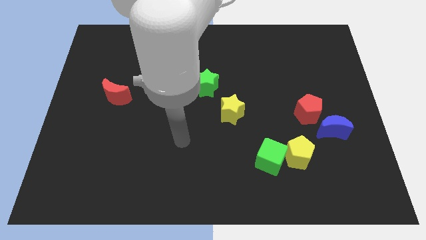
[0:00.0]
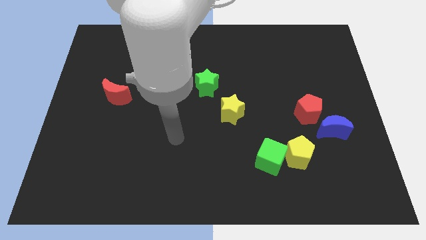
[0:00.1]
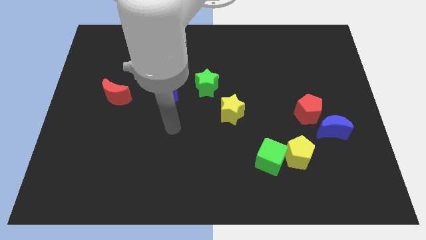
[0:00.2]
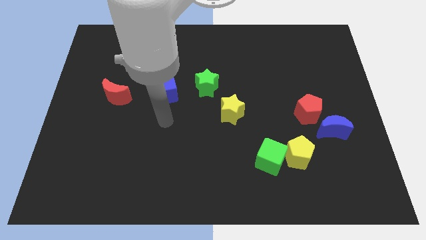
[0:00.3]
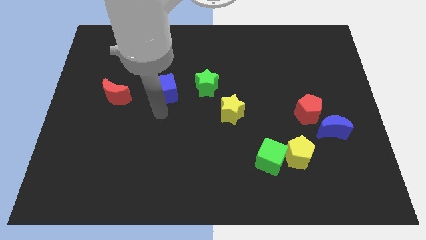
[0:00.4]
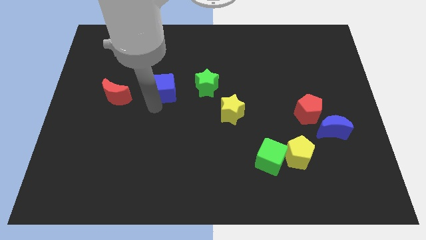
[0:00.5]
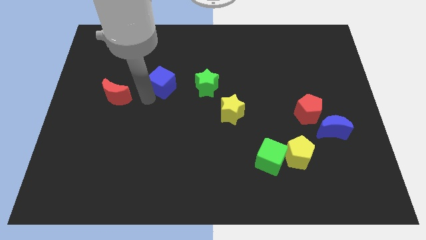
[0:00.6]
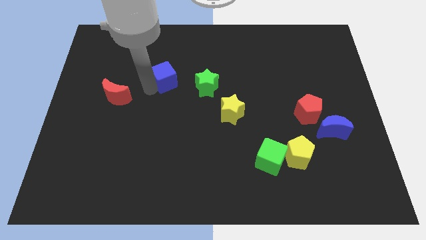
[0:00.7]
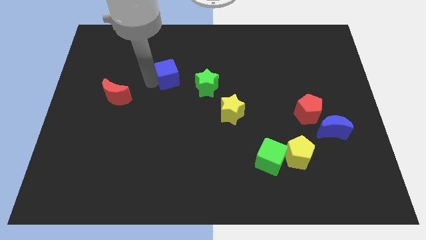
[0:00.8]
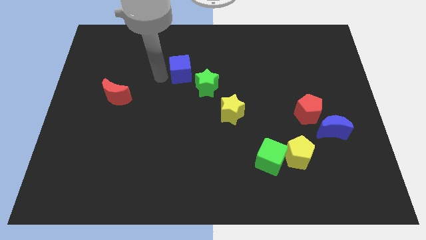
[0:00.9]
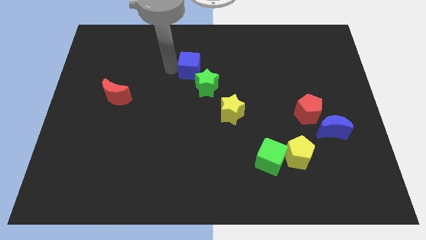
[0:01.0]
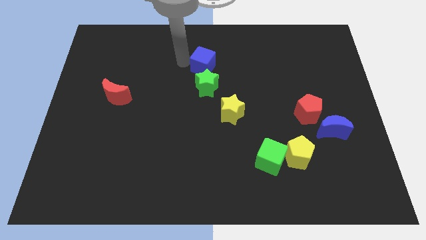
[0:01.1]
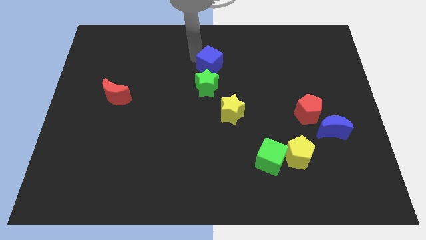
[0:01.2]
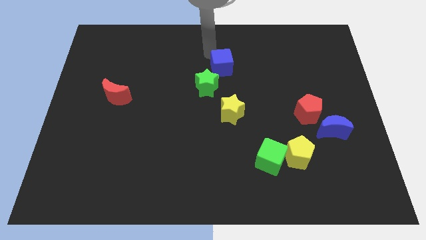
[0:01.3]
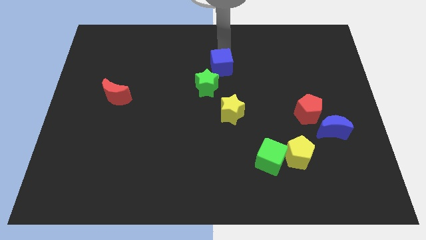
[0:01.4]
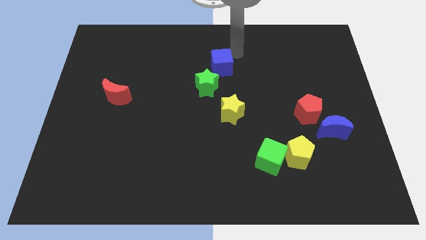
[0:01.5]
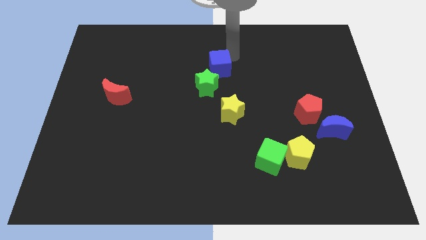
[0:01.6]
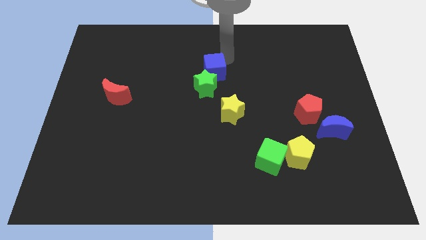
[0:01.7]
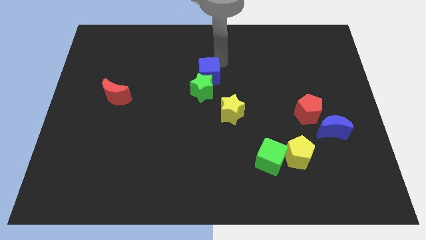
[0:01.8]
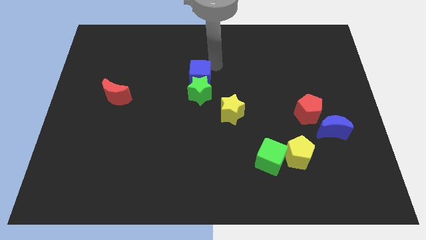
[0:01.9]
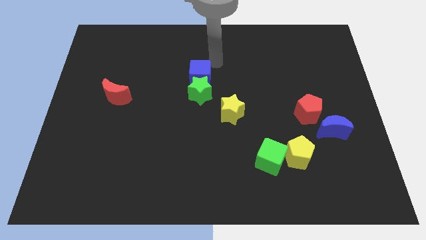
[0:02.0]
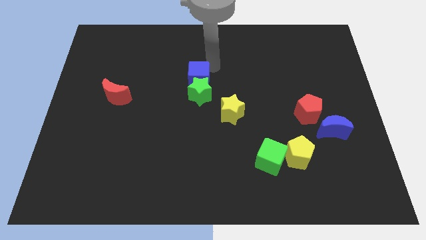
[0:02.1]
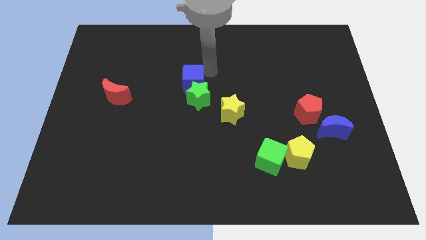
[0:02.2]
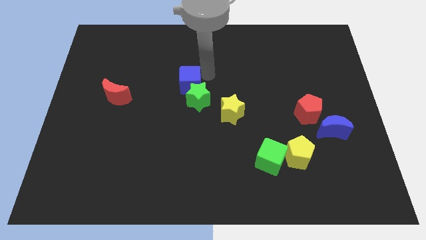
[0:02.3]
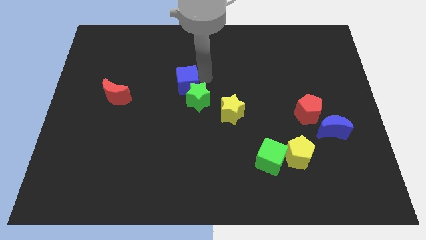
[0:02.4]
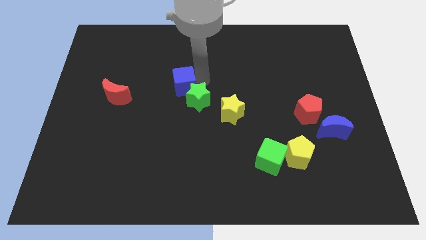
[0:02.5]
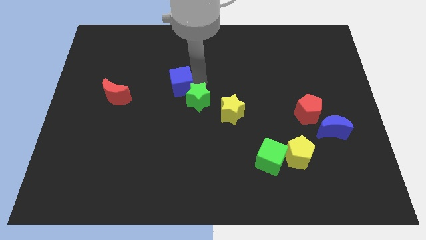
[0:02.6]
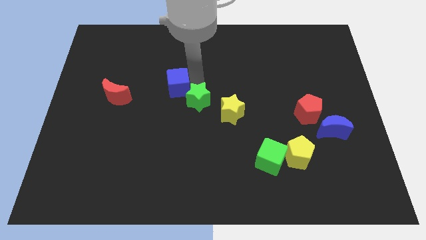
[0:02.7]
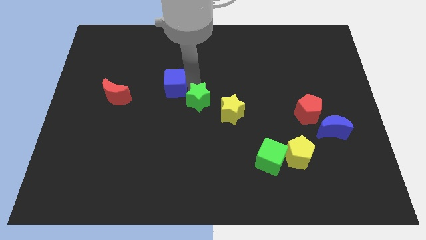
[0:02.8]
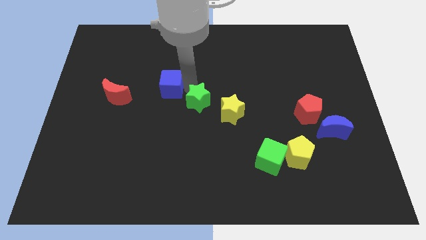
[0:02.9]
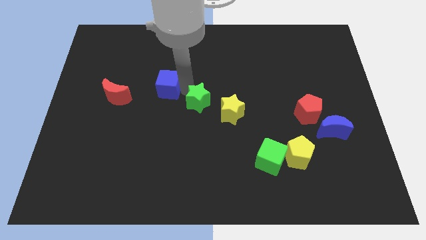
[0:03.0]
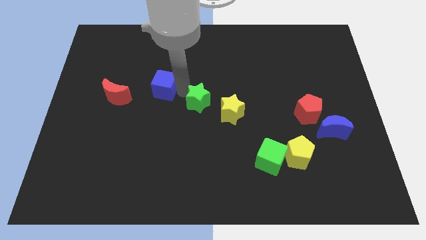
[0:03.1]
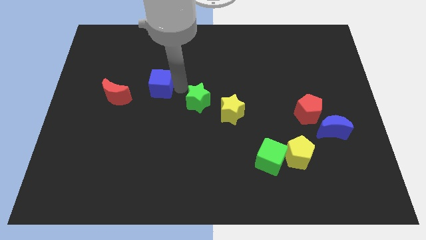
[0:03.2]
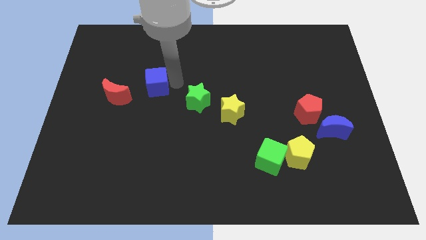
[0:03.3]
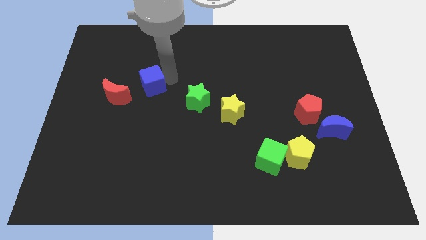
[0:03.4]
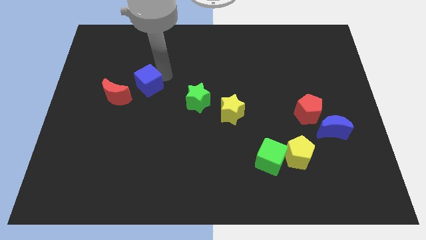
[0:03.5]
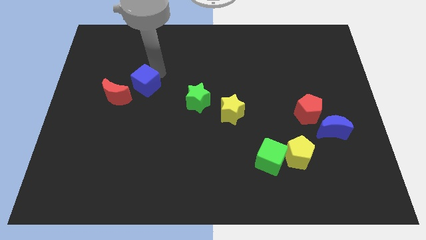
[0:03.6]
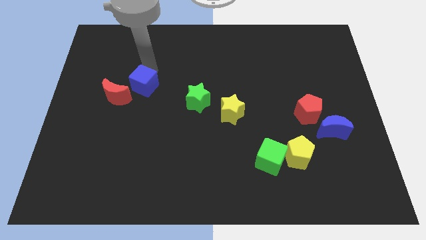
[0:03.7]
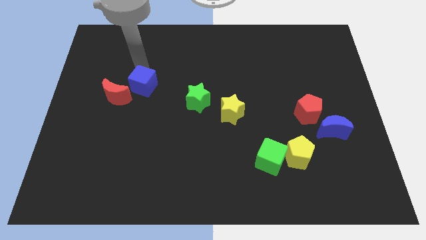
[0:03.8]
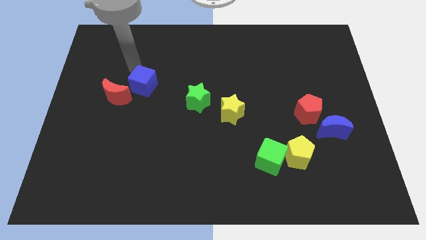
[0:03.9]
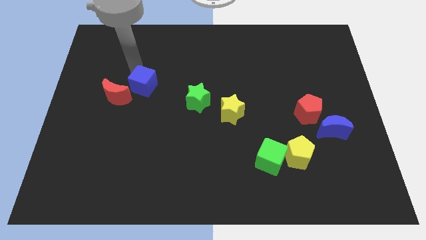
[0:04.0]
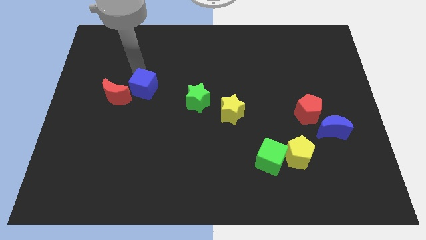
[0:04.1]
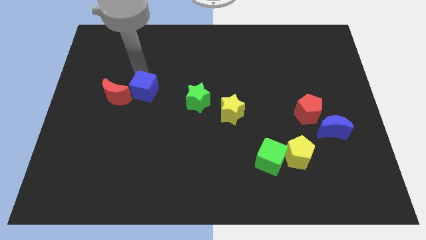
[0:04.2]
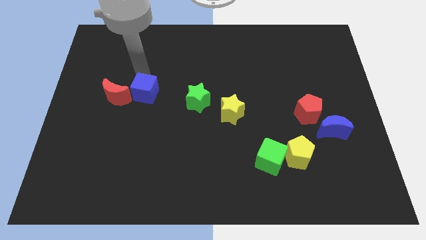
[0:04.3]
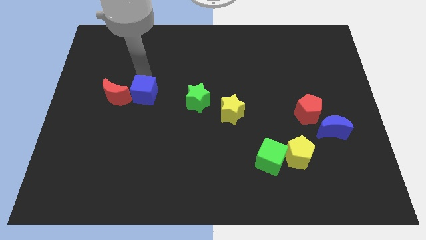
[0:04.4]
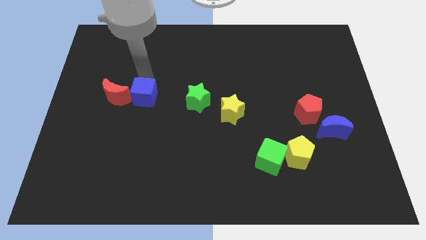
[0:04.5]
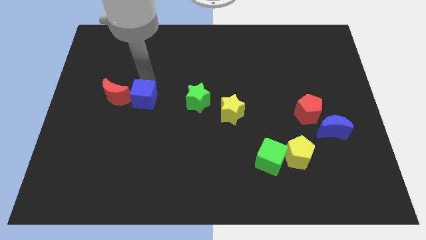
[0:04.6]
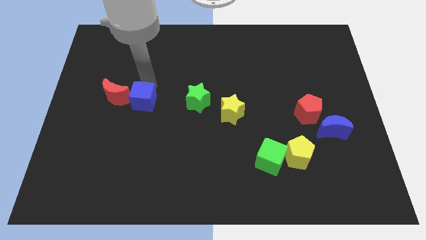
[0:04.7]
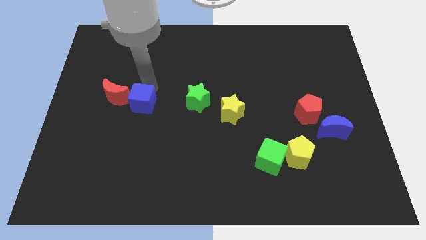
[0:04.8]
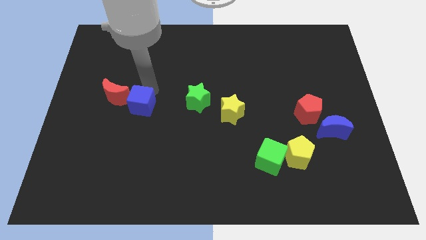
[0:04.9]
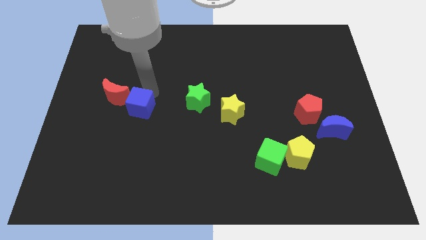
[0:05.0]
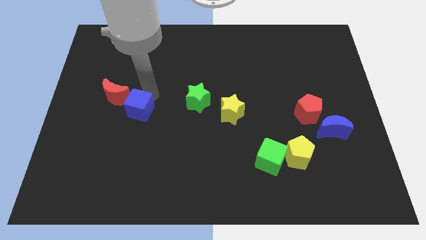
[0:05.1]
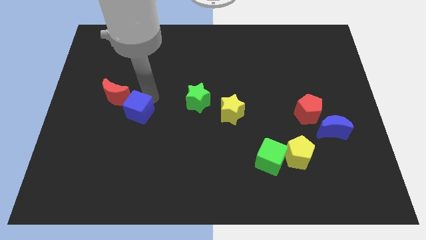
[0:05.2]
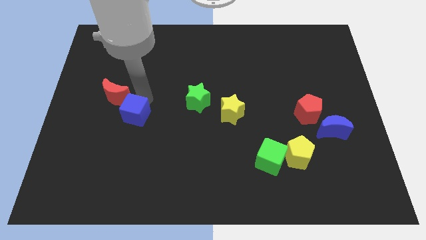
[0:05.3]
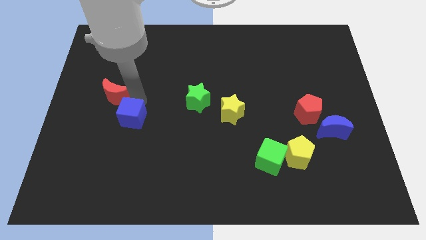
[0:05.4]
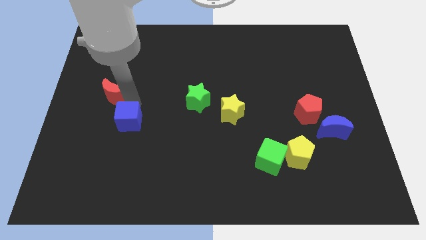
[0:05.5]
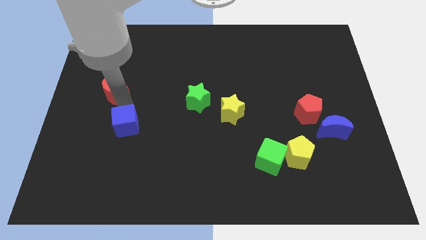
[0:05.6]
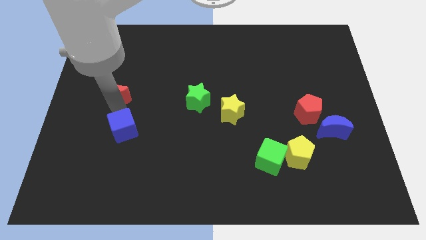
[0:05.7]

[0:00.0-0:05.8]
move the blue cube a little bit down

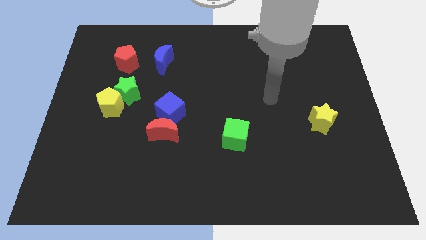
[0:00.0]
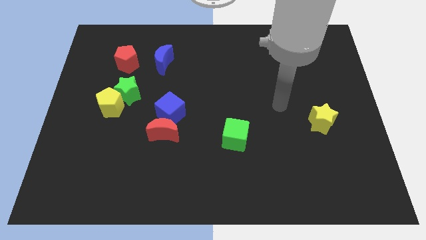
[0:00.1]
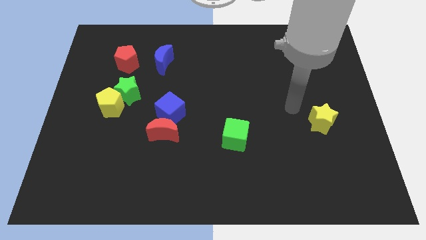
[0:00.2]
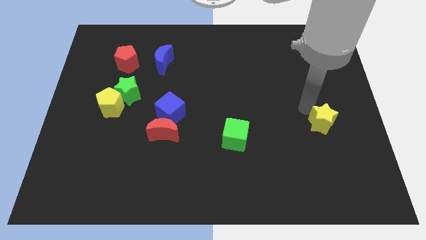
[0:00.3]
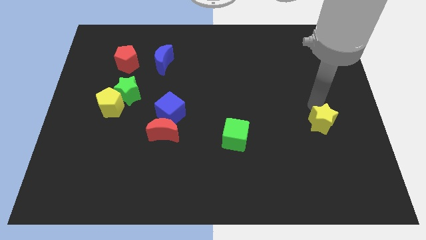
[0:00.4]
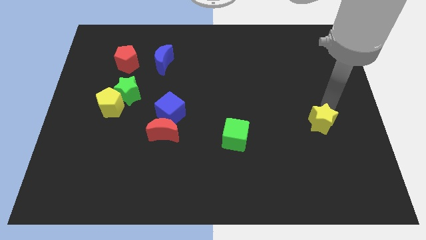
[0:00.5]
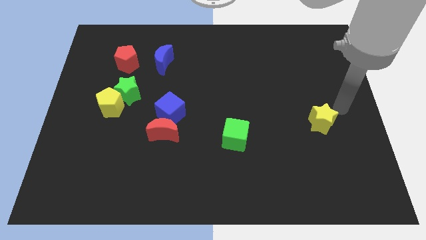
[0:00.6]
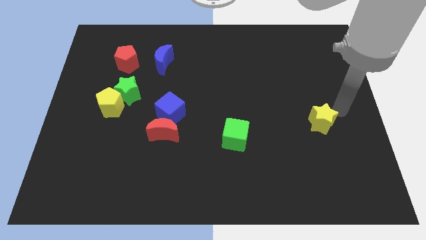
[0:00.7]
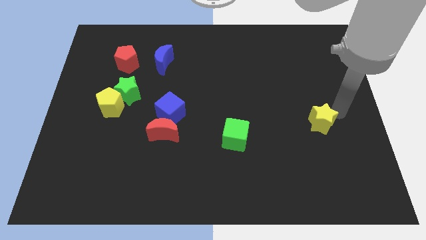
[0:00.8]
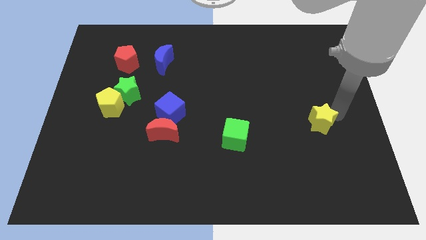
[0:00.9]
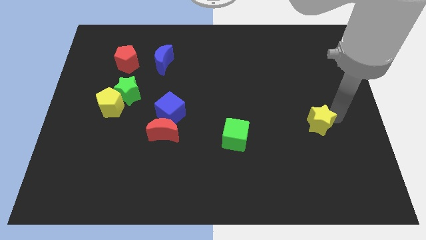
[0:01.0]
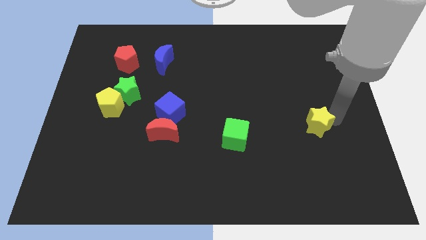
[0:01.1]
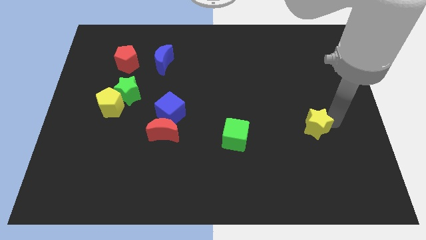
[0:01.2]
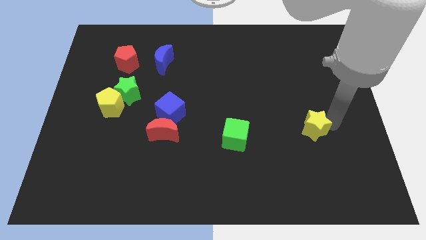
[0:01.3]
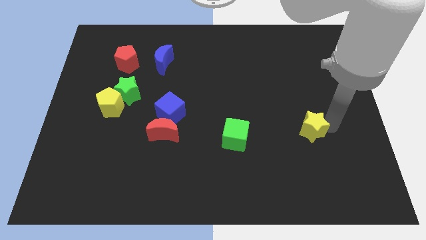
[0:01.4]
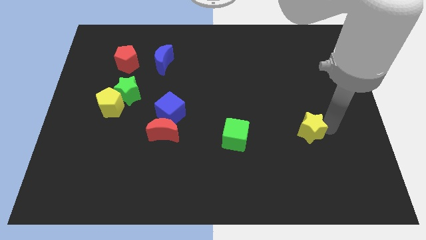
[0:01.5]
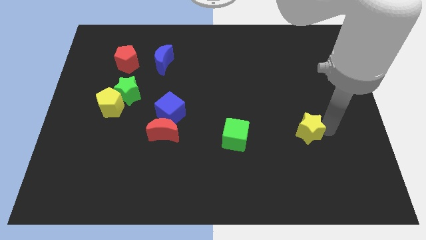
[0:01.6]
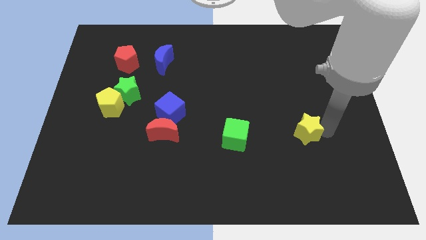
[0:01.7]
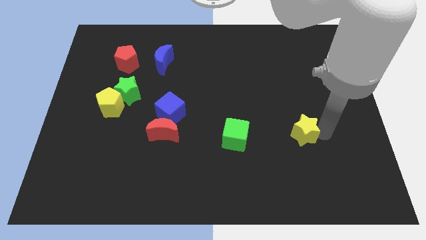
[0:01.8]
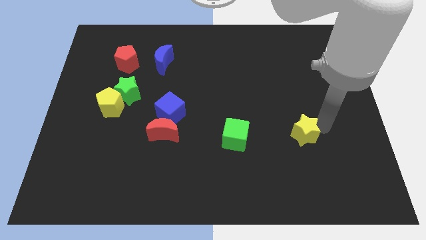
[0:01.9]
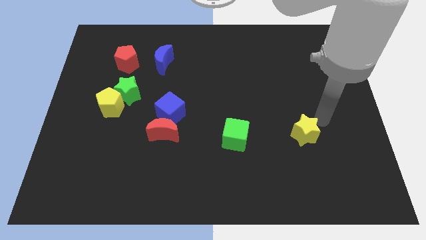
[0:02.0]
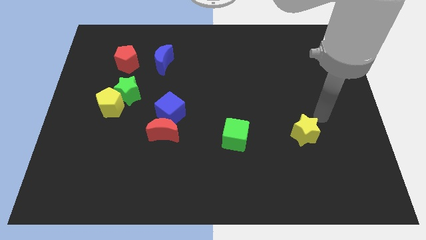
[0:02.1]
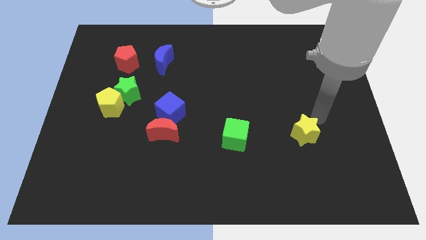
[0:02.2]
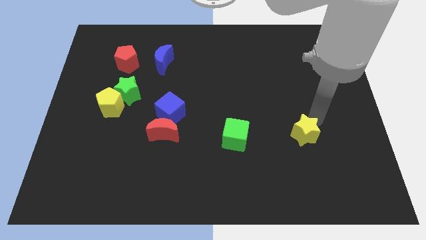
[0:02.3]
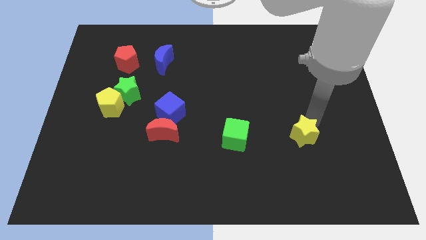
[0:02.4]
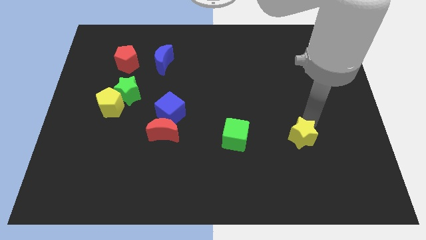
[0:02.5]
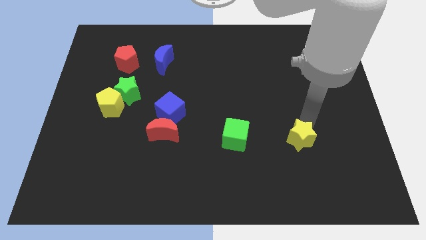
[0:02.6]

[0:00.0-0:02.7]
move the yellow star a bit down and then left
